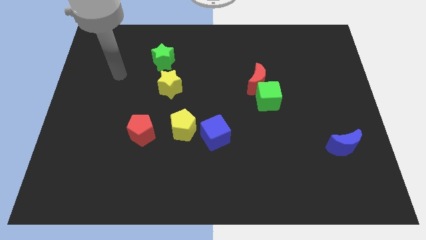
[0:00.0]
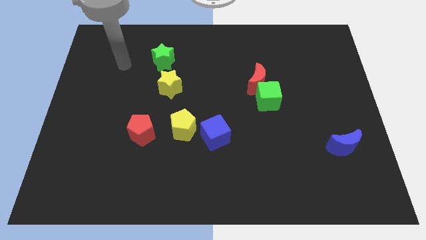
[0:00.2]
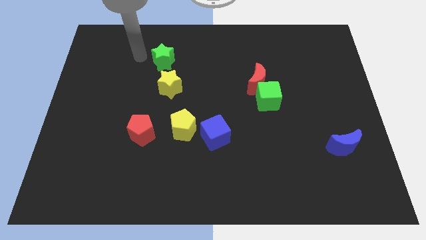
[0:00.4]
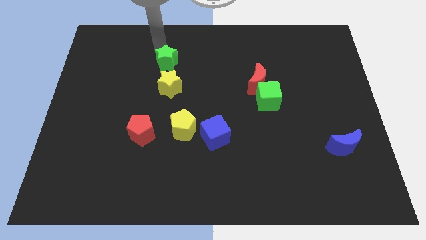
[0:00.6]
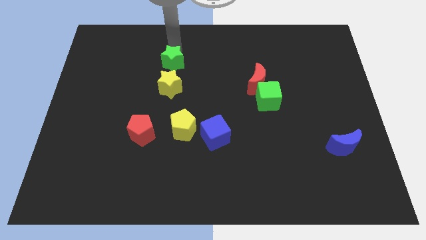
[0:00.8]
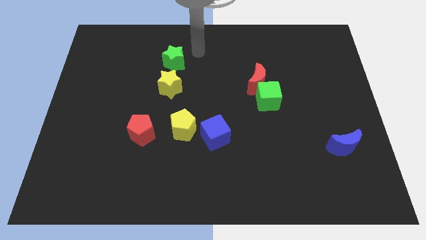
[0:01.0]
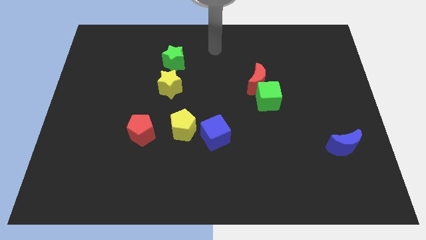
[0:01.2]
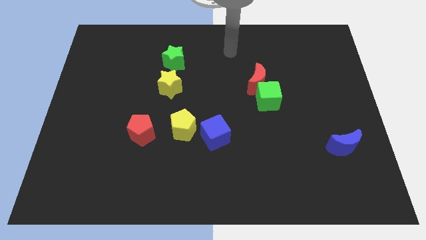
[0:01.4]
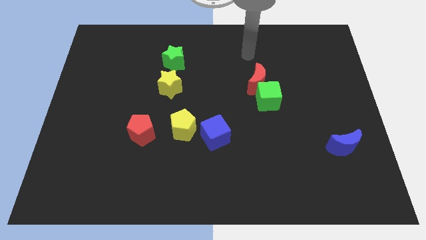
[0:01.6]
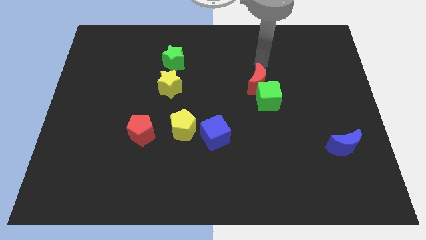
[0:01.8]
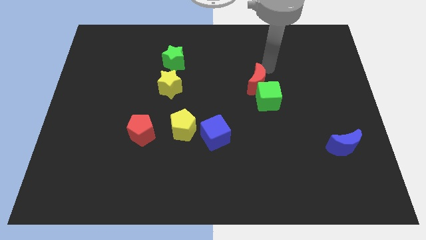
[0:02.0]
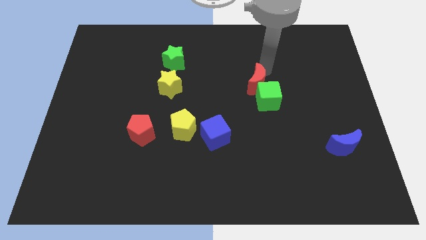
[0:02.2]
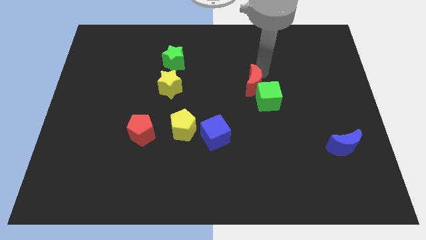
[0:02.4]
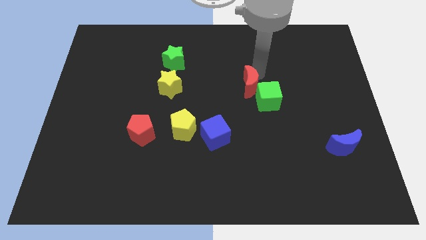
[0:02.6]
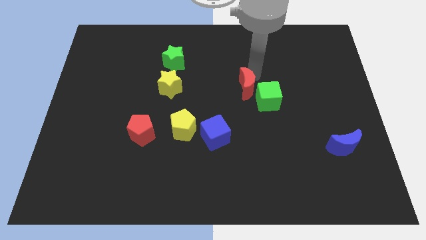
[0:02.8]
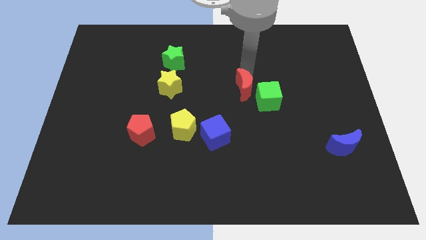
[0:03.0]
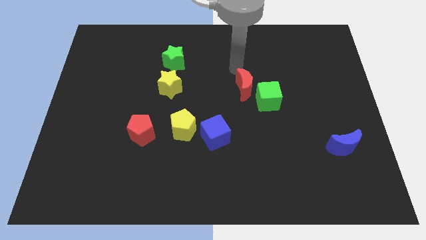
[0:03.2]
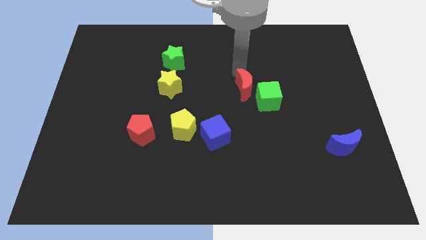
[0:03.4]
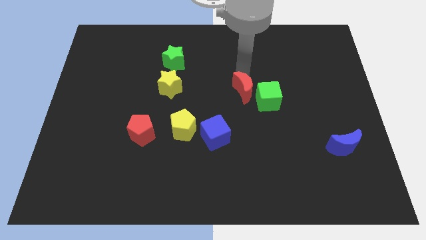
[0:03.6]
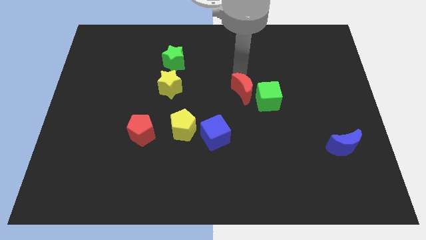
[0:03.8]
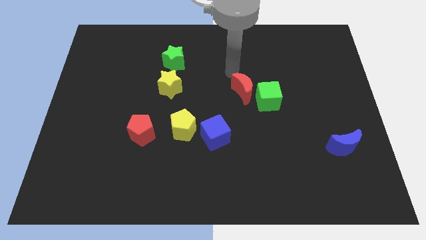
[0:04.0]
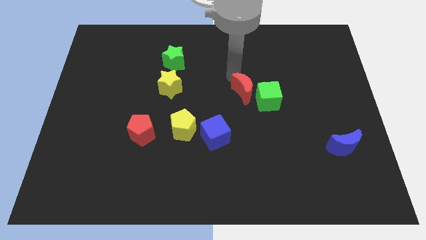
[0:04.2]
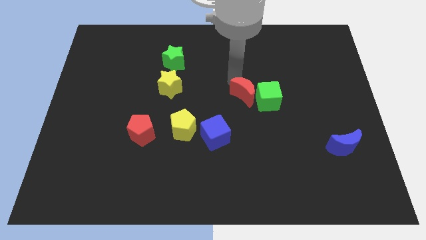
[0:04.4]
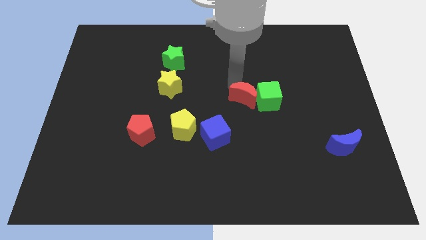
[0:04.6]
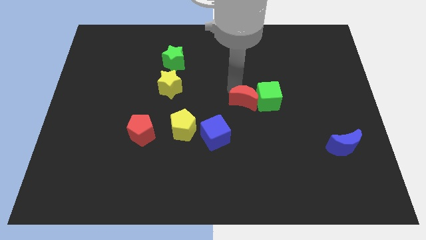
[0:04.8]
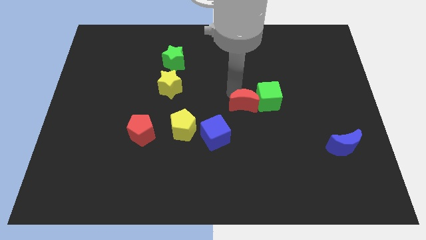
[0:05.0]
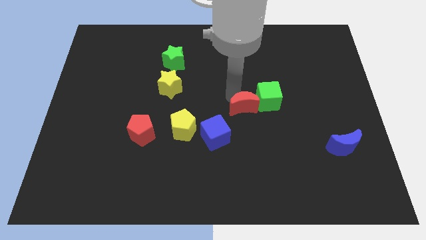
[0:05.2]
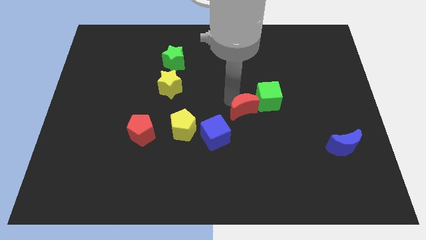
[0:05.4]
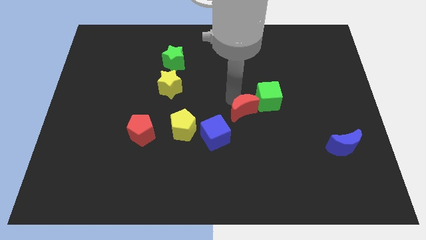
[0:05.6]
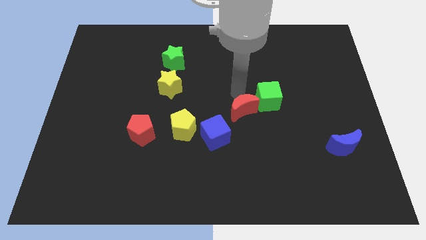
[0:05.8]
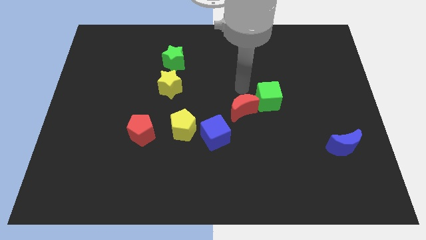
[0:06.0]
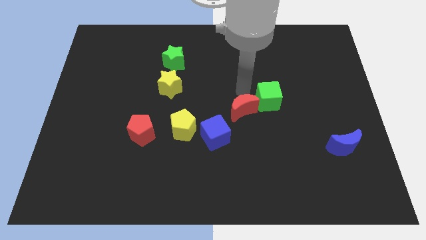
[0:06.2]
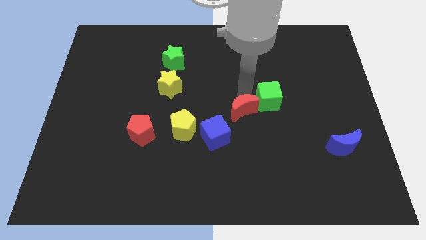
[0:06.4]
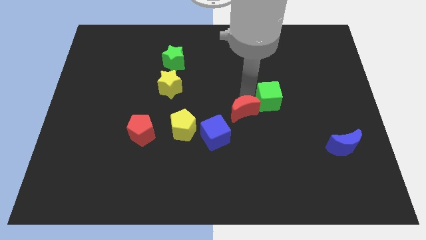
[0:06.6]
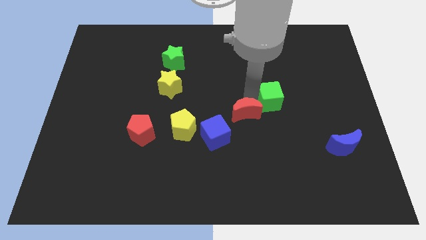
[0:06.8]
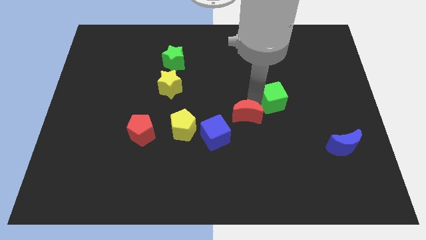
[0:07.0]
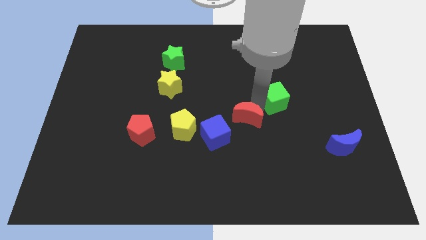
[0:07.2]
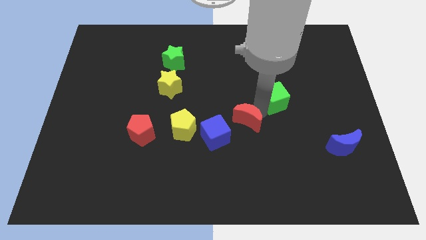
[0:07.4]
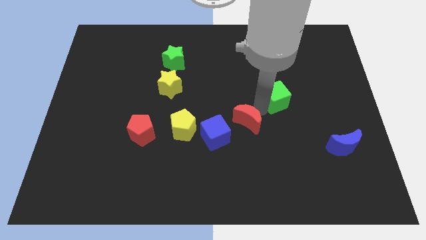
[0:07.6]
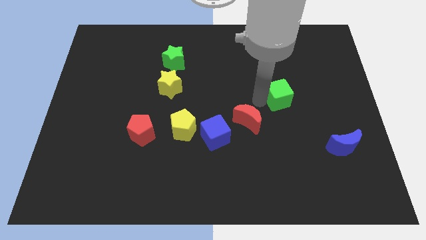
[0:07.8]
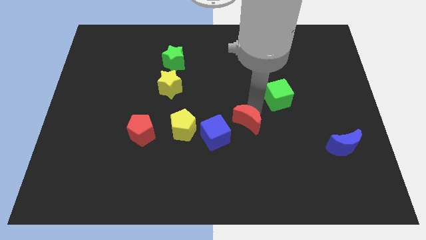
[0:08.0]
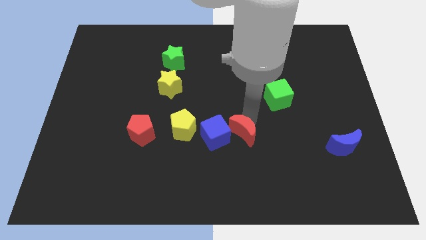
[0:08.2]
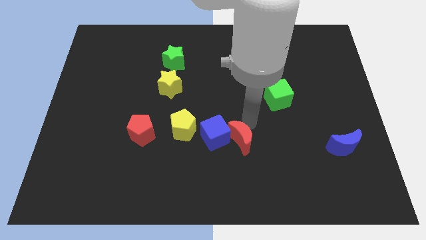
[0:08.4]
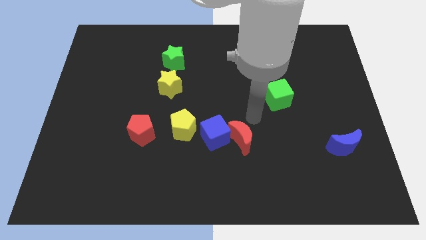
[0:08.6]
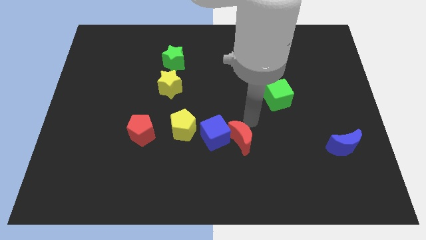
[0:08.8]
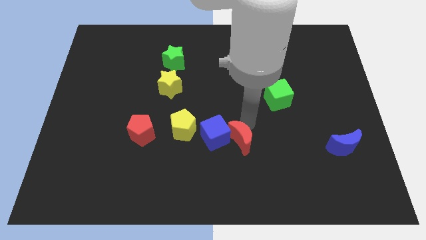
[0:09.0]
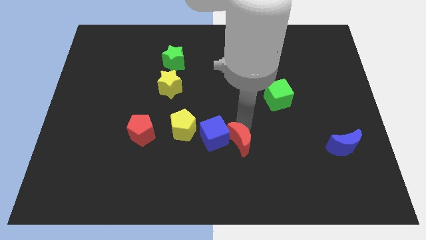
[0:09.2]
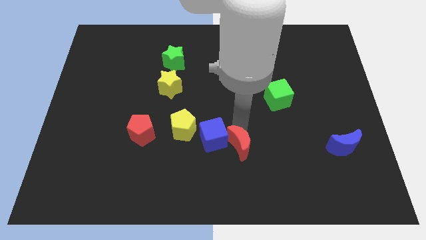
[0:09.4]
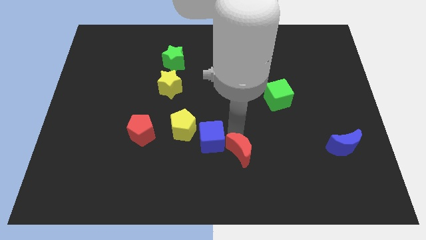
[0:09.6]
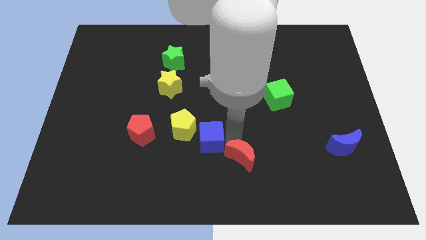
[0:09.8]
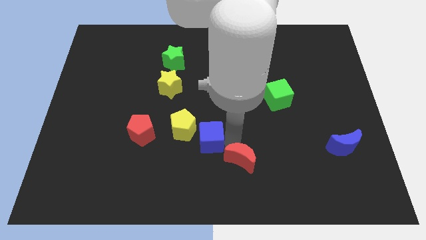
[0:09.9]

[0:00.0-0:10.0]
slide the red moon to the bottom side

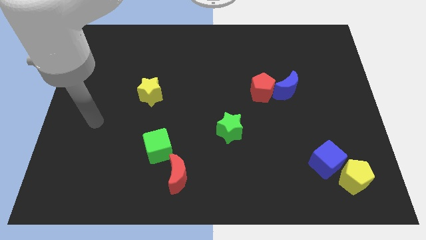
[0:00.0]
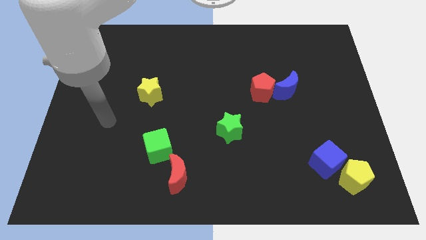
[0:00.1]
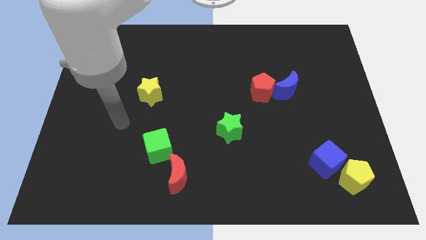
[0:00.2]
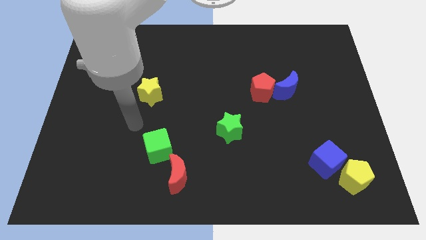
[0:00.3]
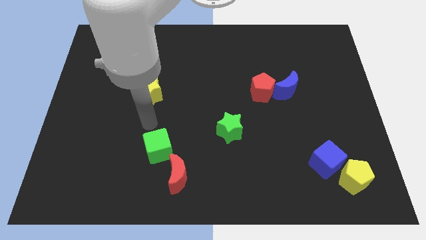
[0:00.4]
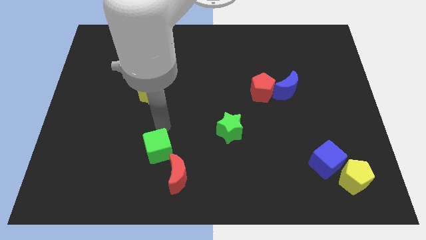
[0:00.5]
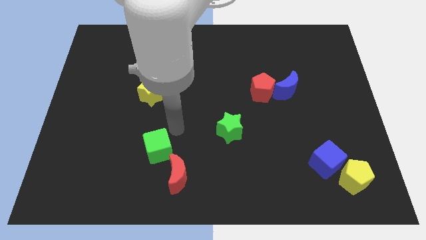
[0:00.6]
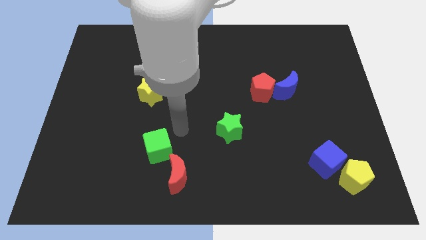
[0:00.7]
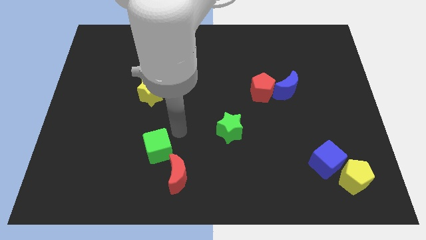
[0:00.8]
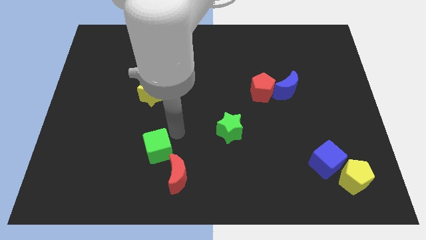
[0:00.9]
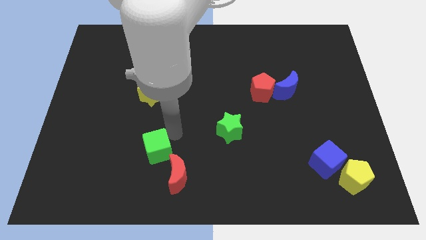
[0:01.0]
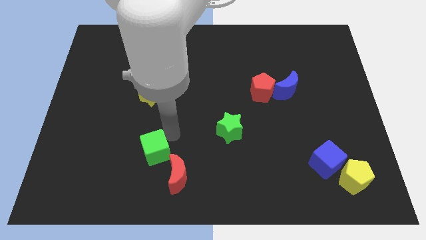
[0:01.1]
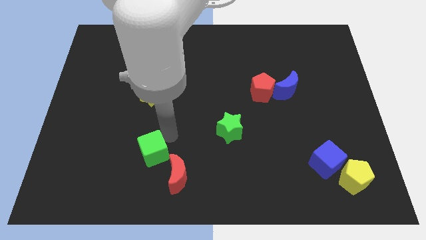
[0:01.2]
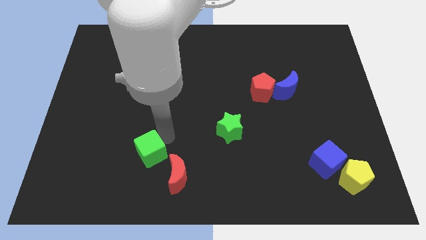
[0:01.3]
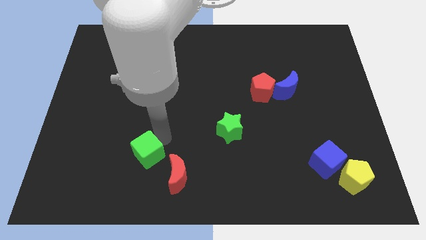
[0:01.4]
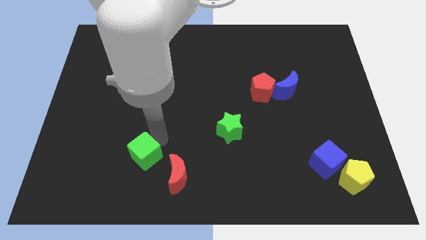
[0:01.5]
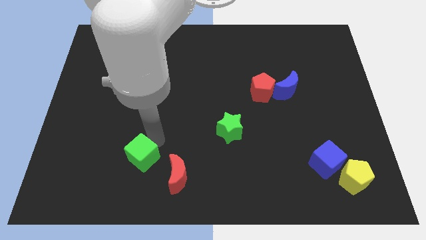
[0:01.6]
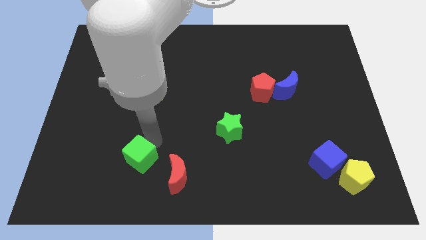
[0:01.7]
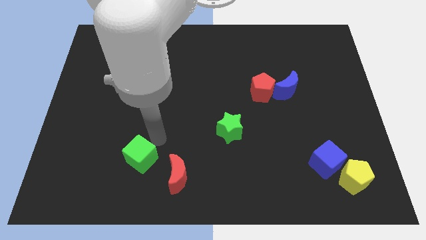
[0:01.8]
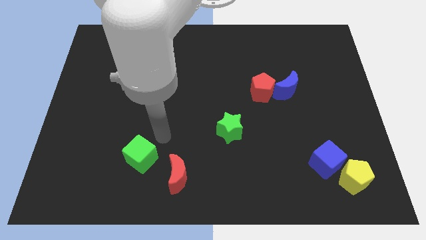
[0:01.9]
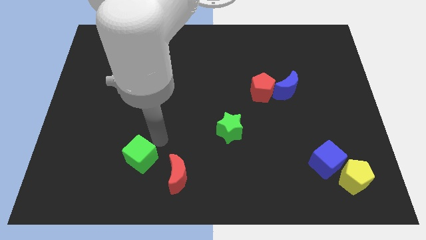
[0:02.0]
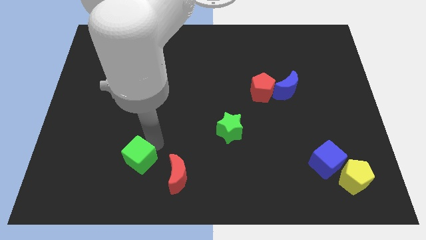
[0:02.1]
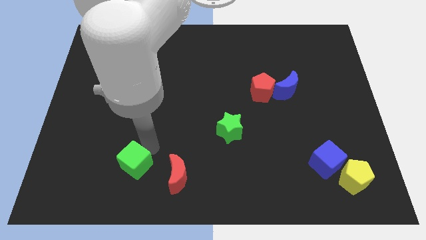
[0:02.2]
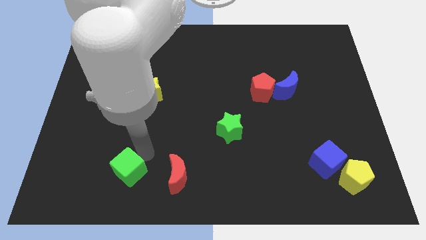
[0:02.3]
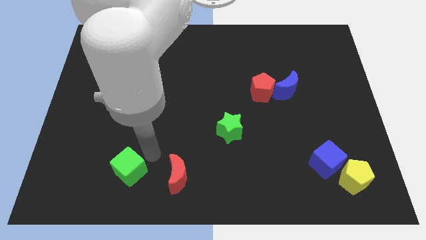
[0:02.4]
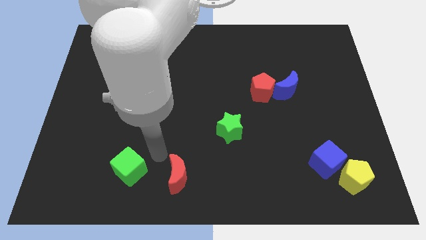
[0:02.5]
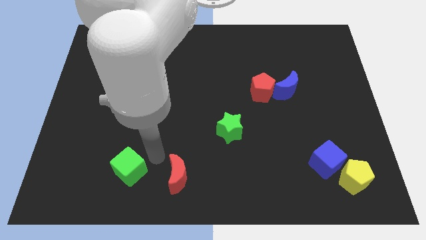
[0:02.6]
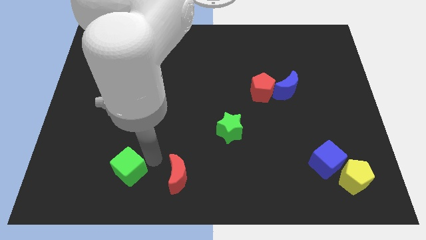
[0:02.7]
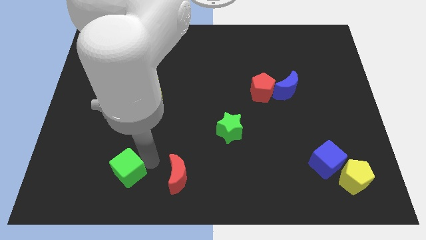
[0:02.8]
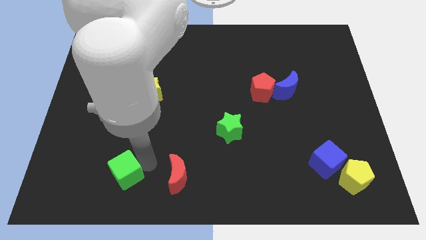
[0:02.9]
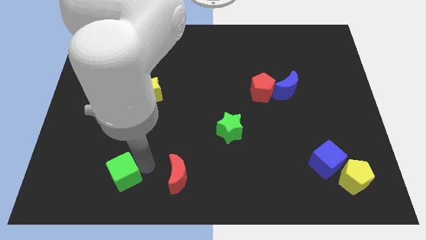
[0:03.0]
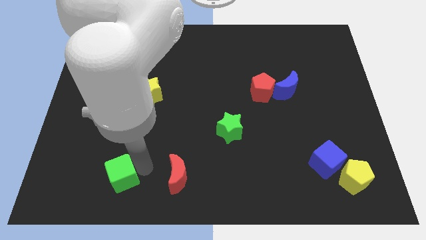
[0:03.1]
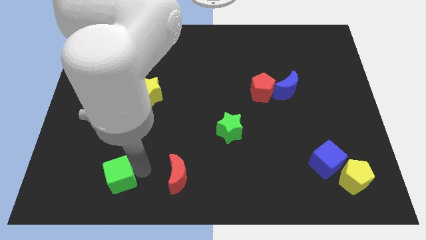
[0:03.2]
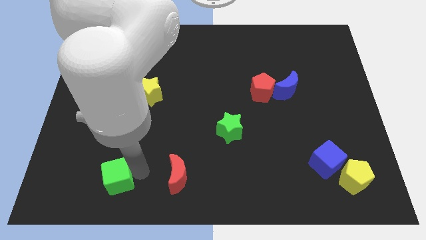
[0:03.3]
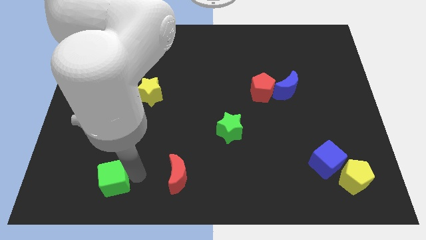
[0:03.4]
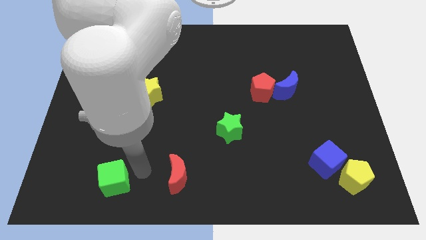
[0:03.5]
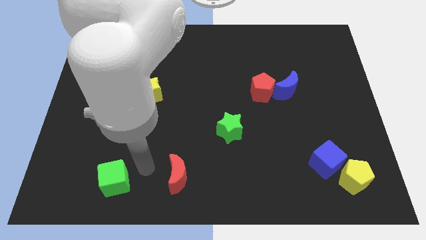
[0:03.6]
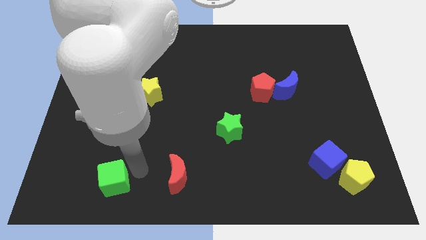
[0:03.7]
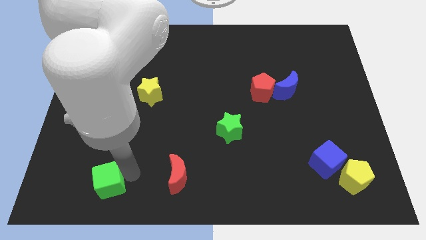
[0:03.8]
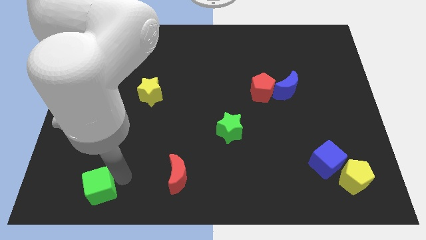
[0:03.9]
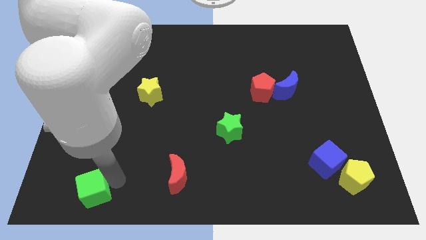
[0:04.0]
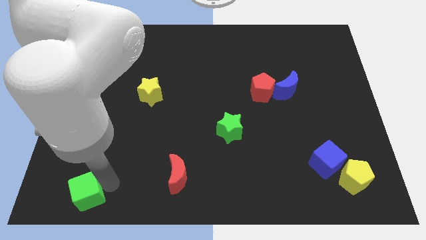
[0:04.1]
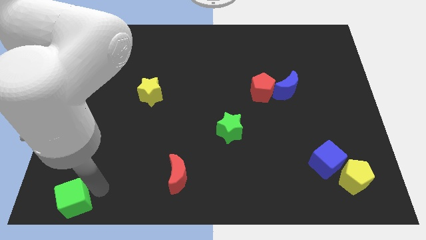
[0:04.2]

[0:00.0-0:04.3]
push the green cube to the bottom left of the board
